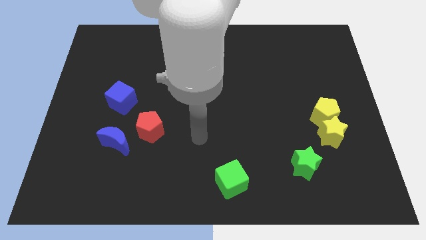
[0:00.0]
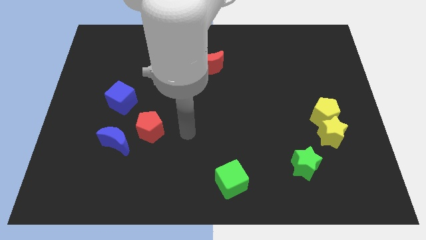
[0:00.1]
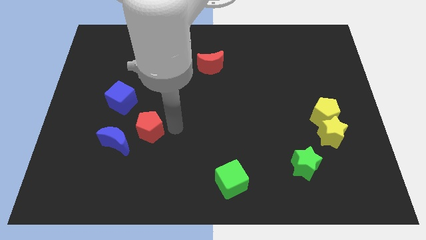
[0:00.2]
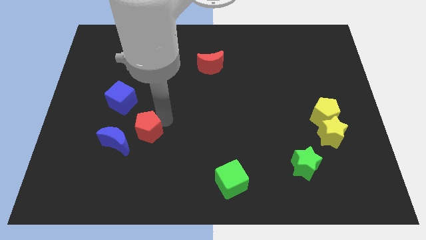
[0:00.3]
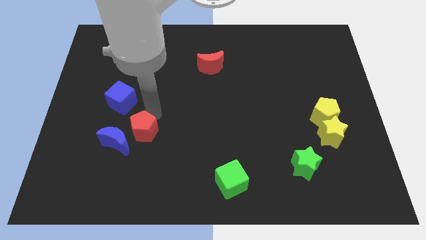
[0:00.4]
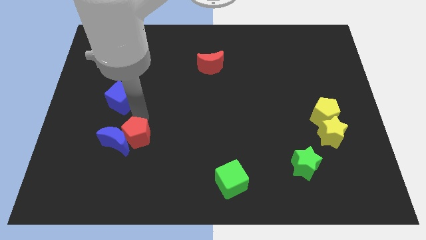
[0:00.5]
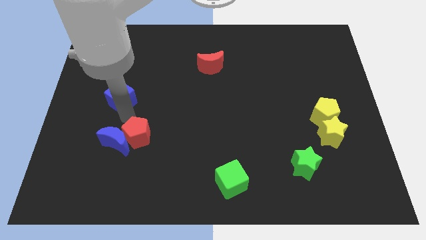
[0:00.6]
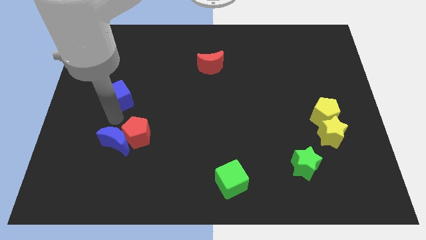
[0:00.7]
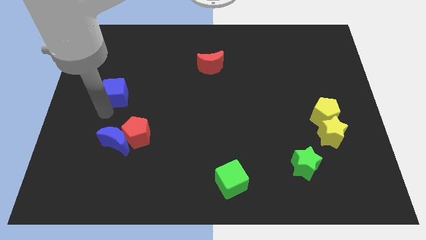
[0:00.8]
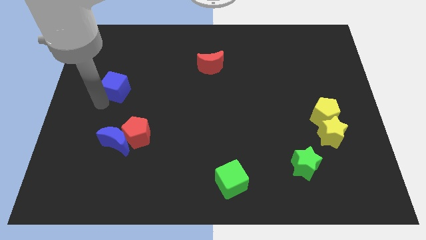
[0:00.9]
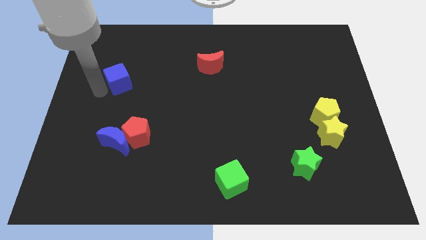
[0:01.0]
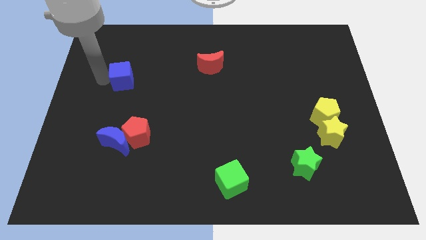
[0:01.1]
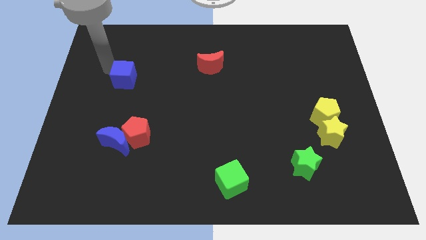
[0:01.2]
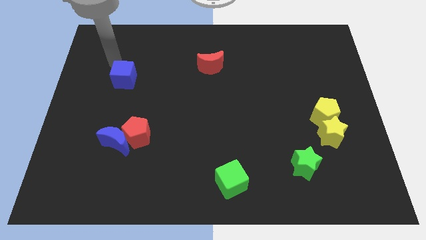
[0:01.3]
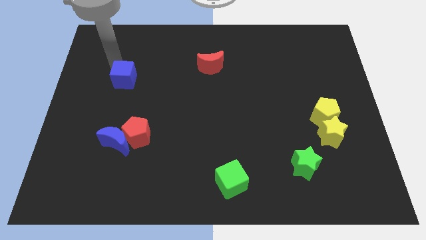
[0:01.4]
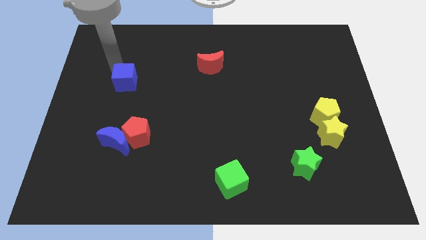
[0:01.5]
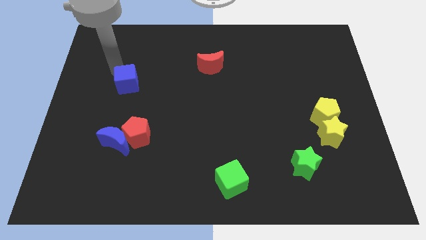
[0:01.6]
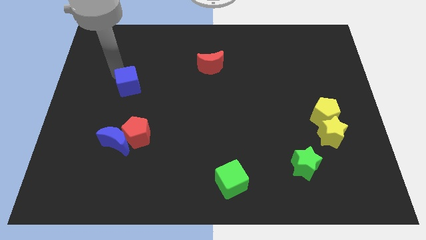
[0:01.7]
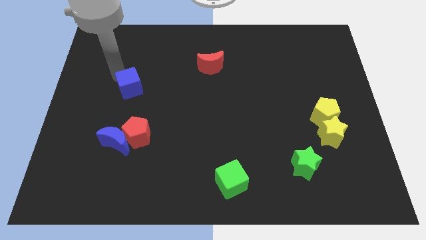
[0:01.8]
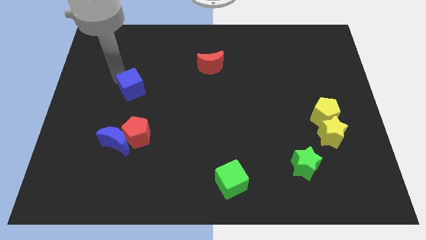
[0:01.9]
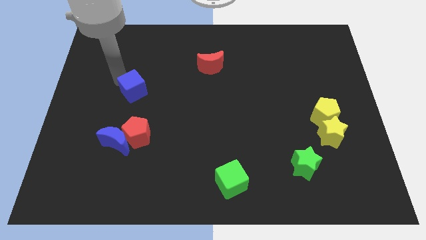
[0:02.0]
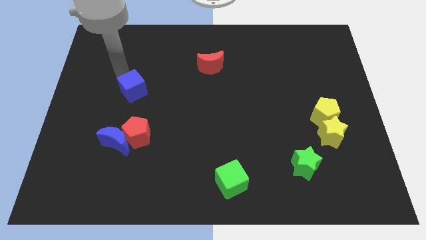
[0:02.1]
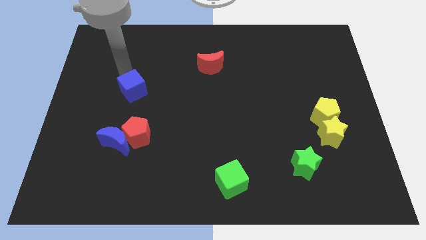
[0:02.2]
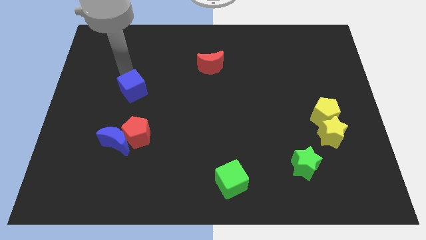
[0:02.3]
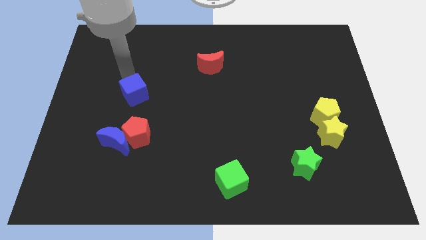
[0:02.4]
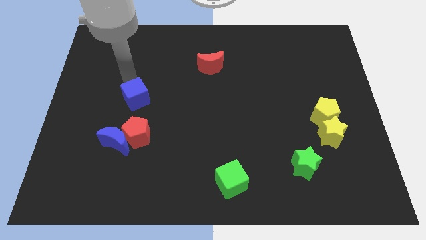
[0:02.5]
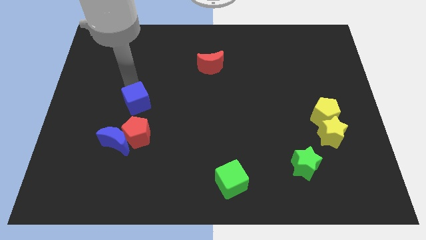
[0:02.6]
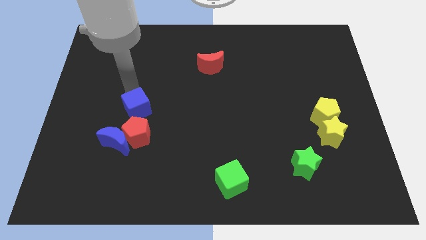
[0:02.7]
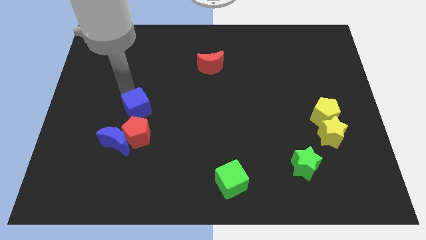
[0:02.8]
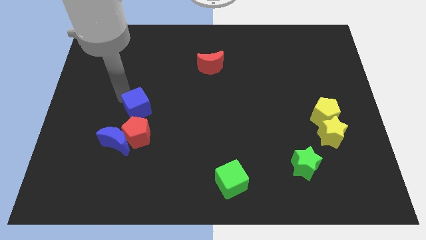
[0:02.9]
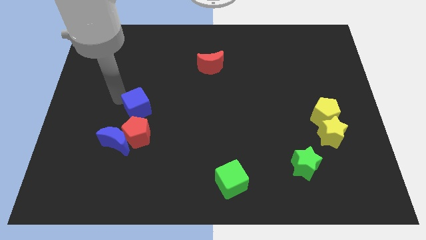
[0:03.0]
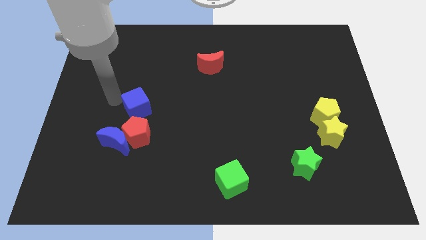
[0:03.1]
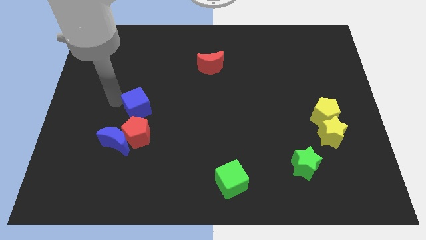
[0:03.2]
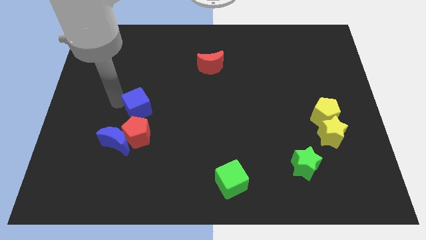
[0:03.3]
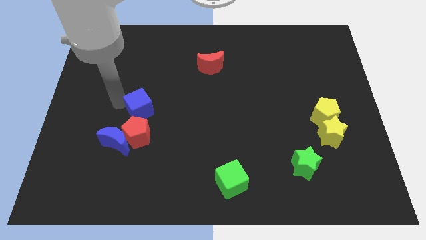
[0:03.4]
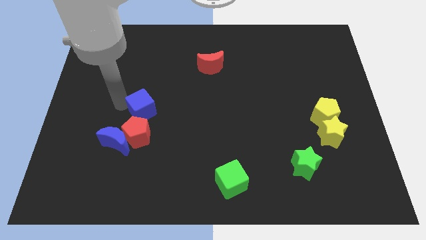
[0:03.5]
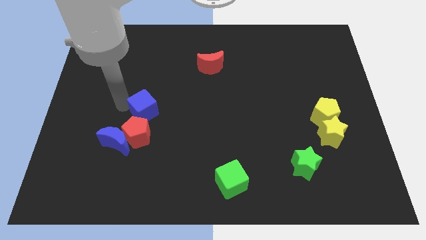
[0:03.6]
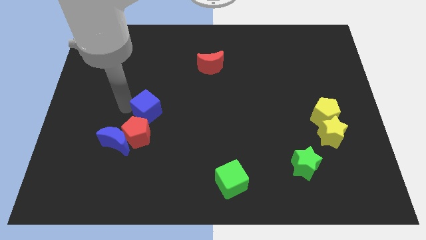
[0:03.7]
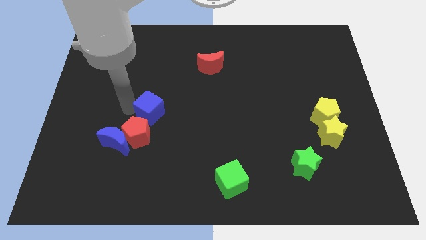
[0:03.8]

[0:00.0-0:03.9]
push the blue cube slightly diagonally downwards and right

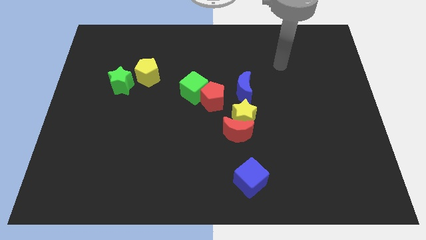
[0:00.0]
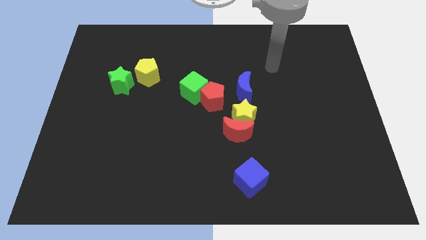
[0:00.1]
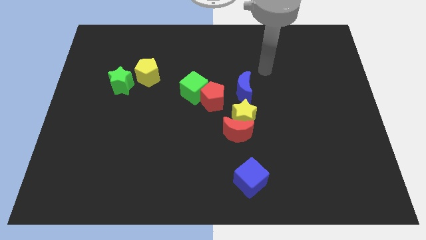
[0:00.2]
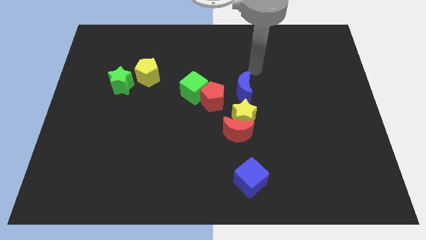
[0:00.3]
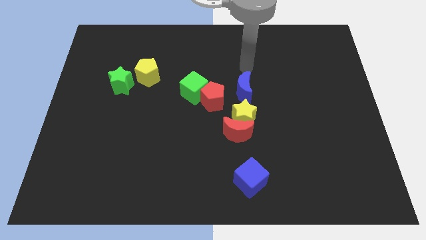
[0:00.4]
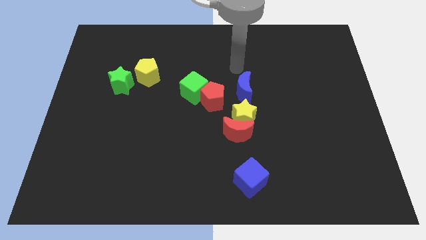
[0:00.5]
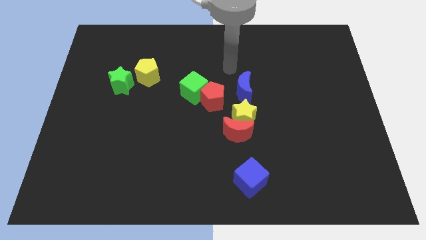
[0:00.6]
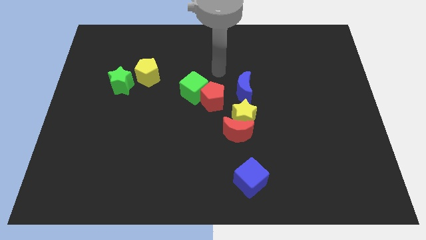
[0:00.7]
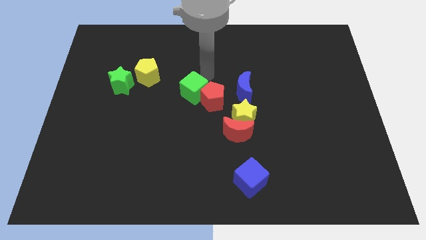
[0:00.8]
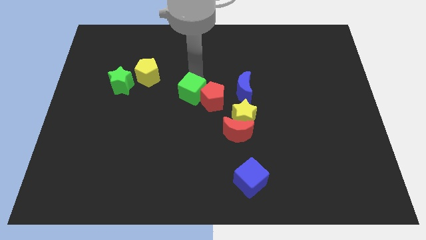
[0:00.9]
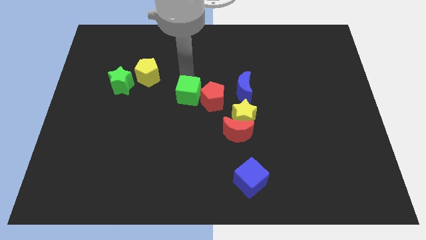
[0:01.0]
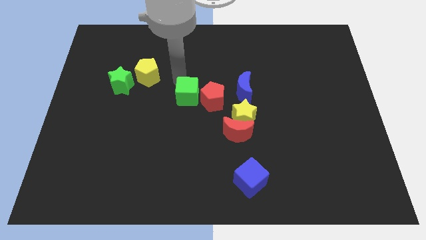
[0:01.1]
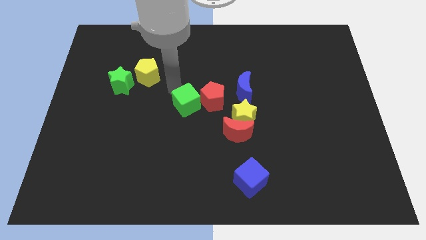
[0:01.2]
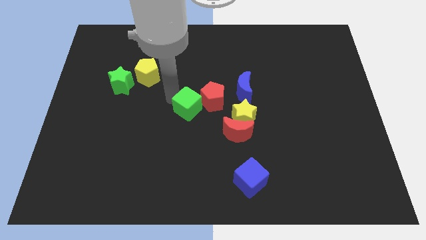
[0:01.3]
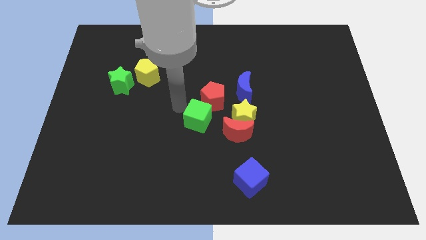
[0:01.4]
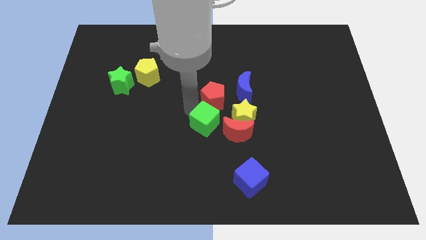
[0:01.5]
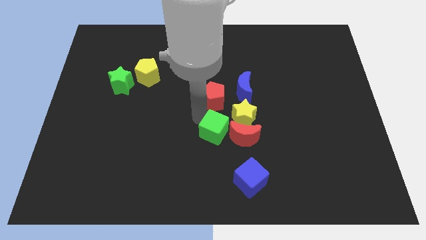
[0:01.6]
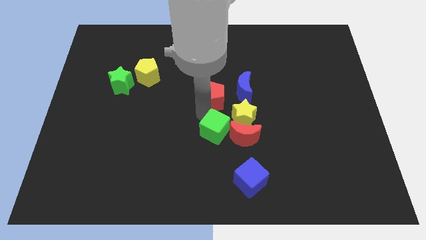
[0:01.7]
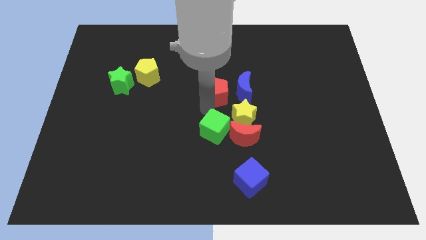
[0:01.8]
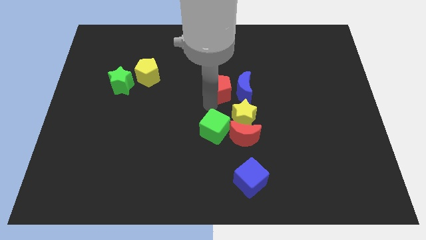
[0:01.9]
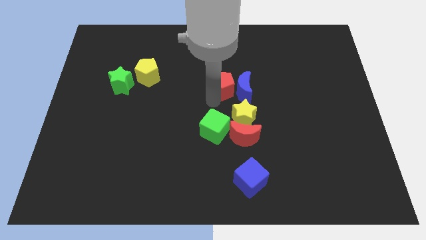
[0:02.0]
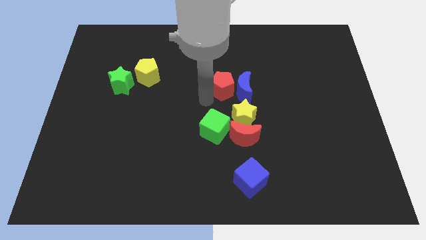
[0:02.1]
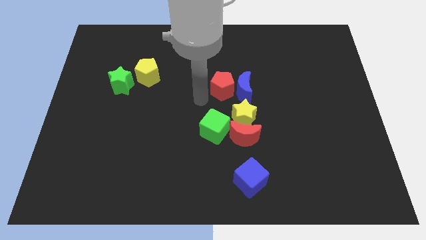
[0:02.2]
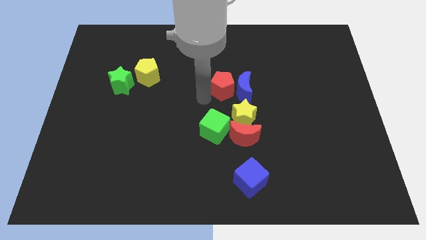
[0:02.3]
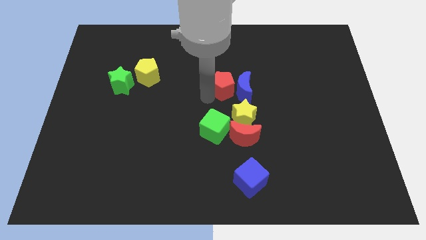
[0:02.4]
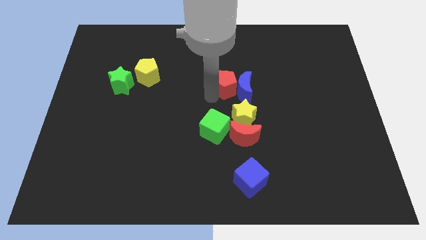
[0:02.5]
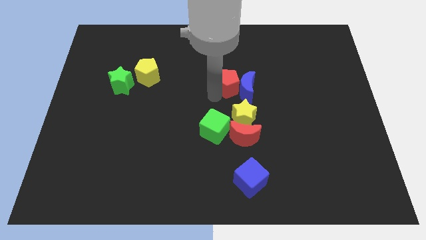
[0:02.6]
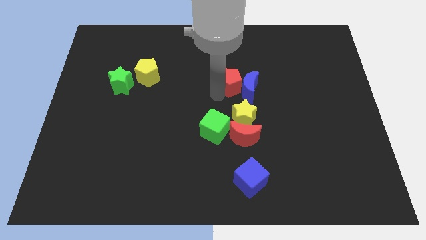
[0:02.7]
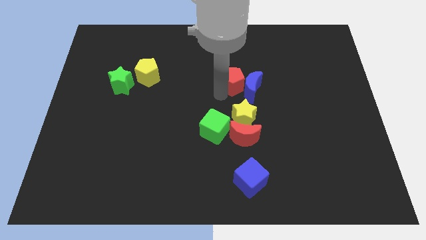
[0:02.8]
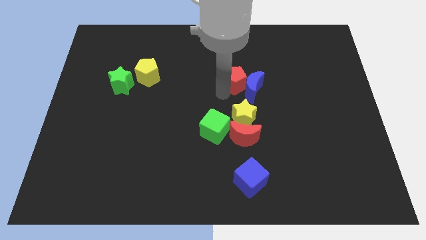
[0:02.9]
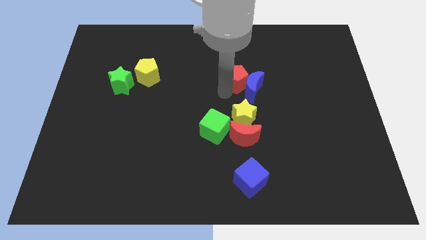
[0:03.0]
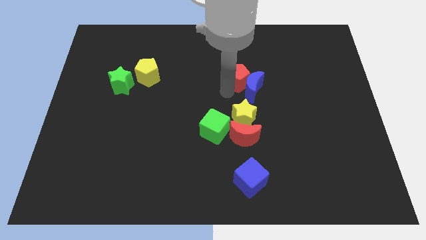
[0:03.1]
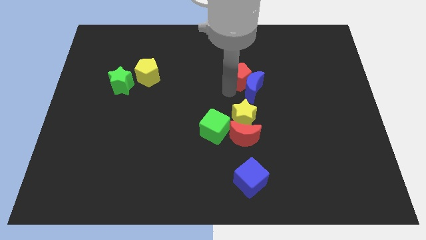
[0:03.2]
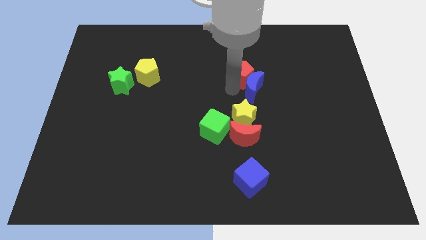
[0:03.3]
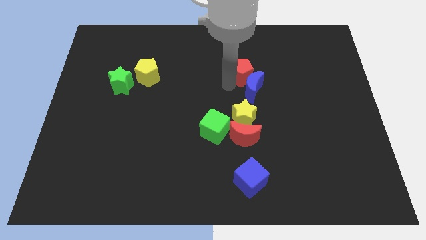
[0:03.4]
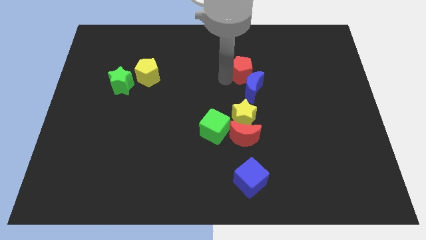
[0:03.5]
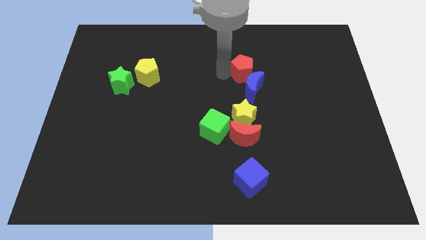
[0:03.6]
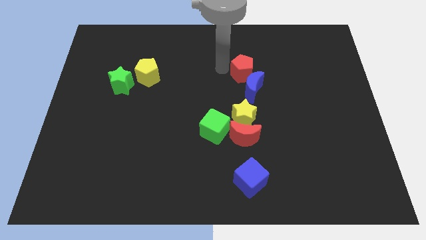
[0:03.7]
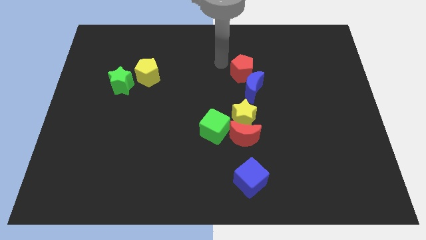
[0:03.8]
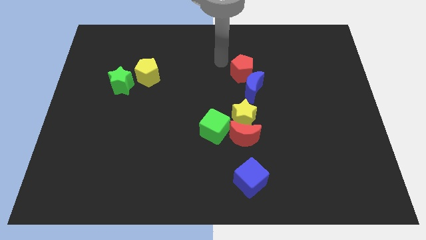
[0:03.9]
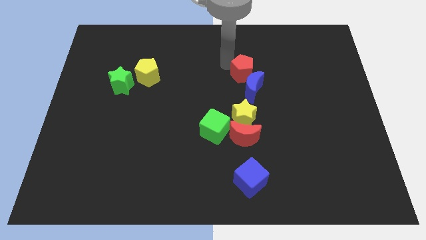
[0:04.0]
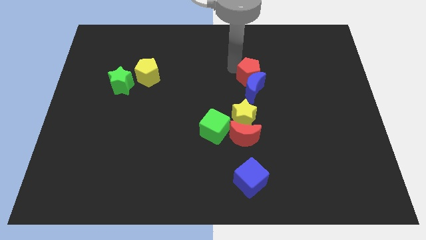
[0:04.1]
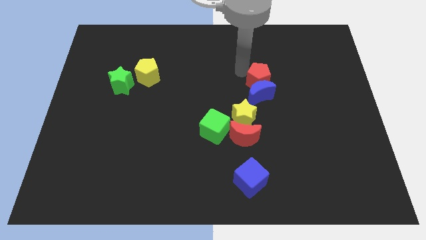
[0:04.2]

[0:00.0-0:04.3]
move the red pentagon a little bit to the right
